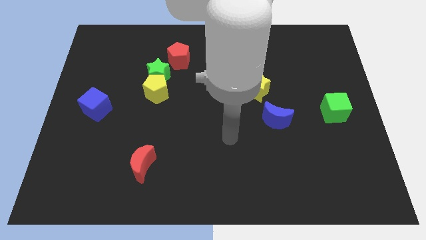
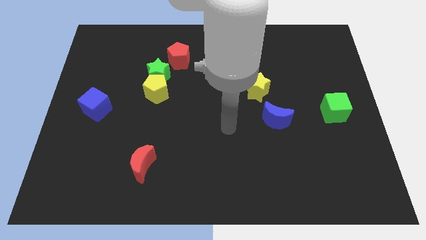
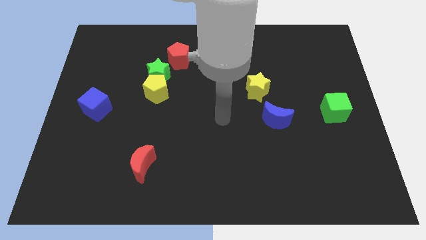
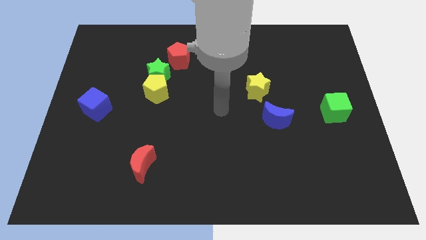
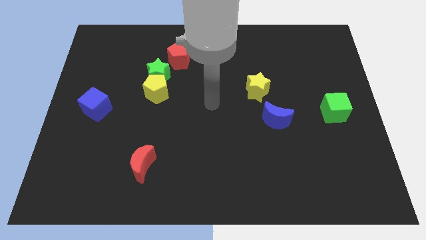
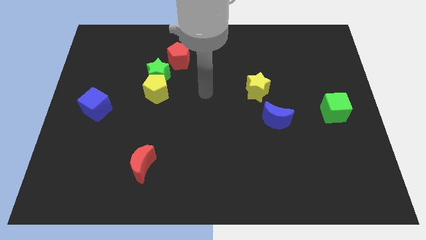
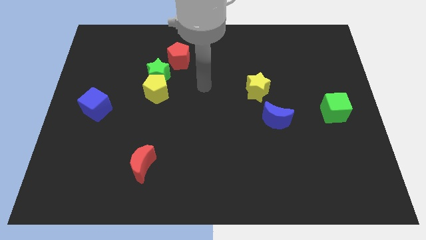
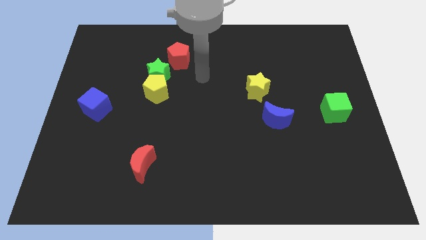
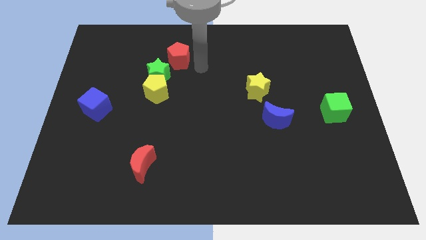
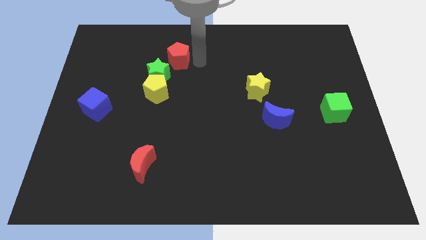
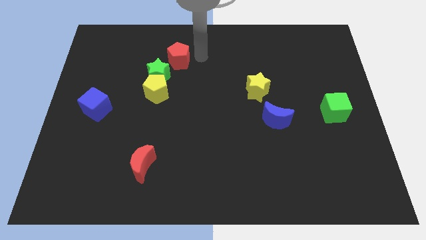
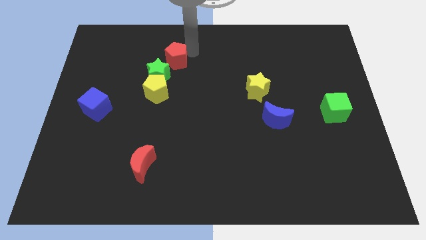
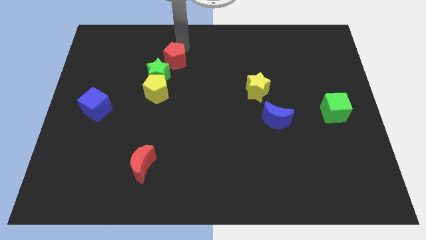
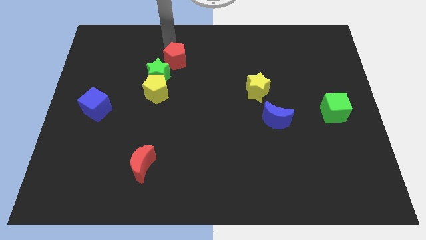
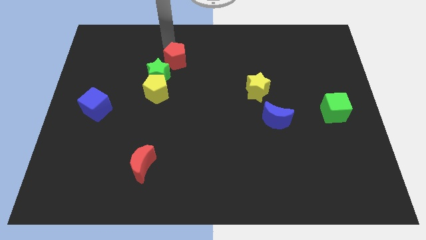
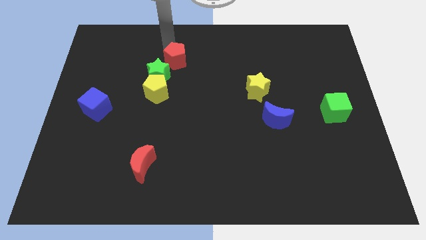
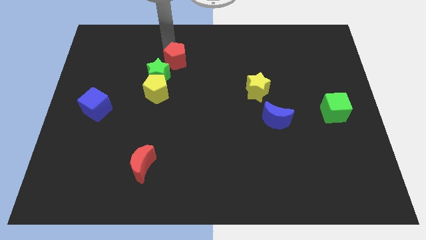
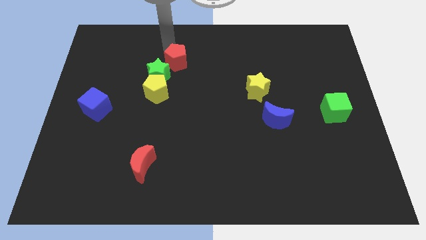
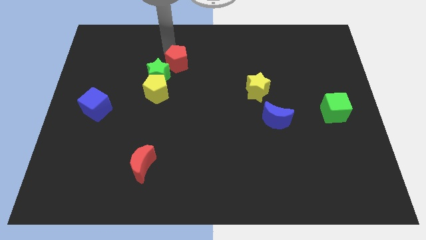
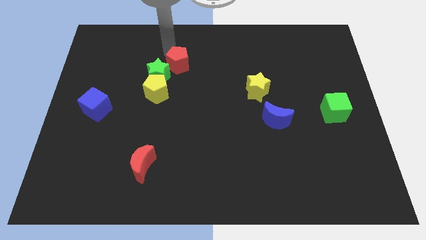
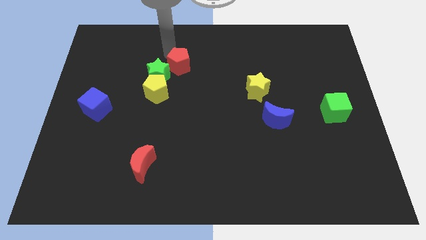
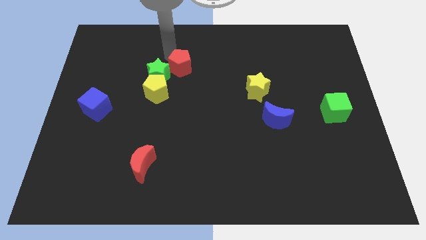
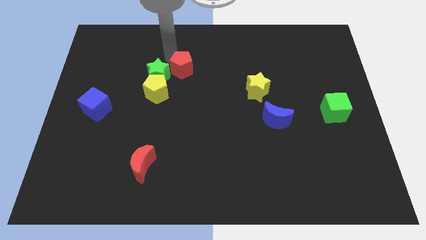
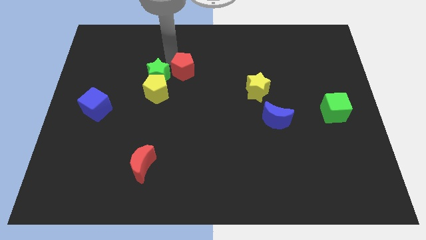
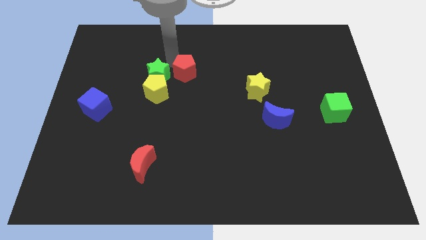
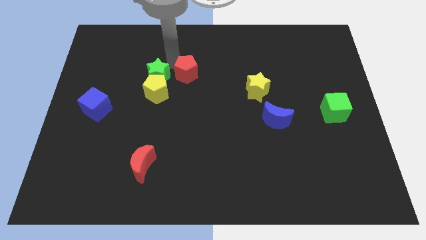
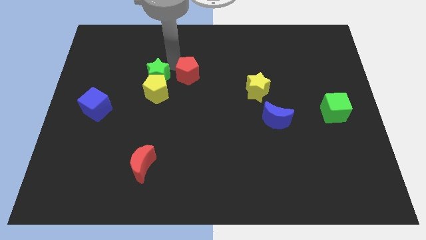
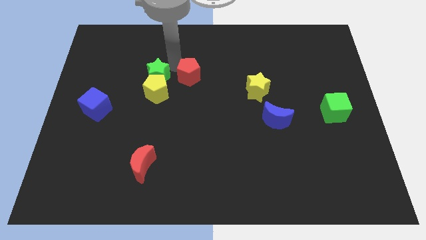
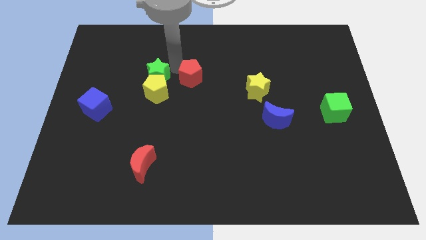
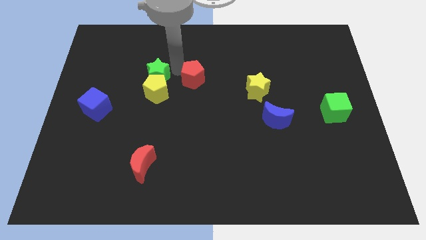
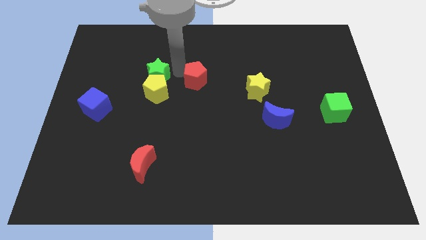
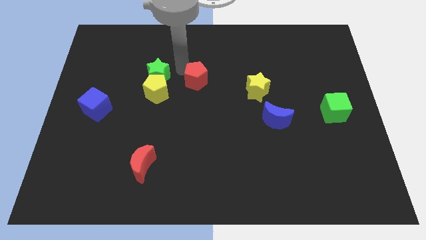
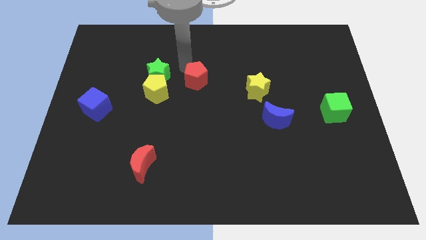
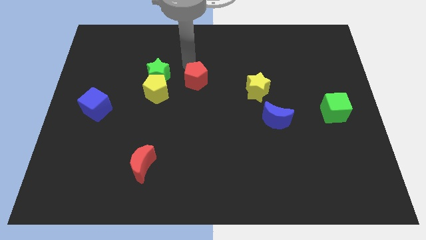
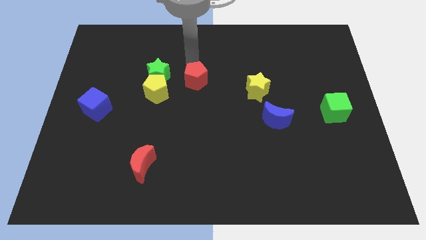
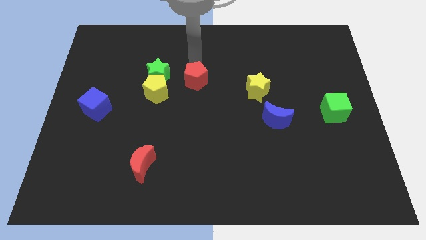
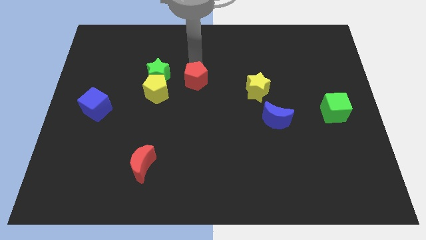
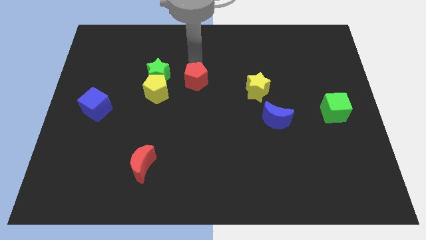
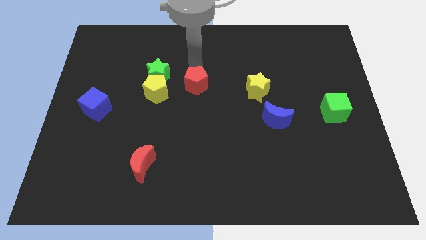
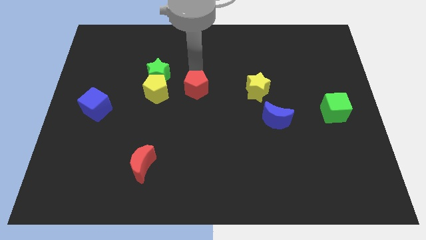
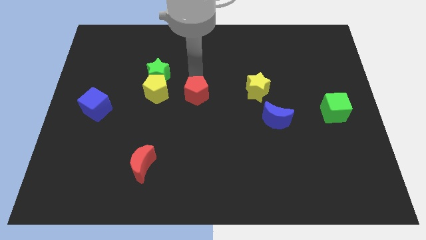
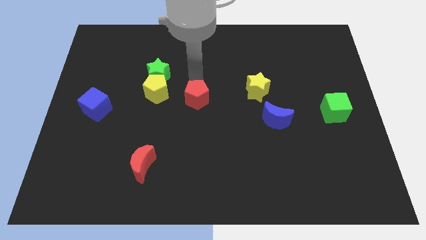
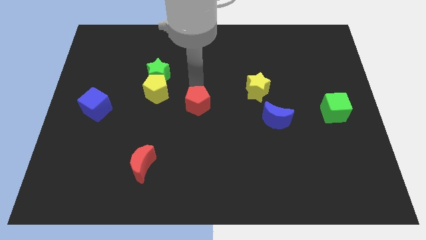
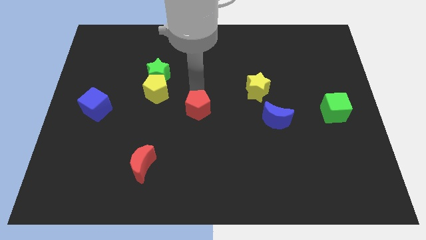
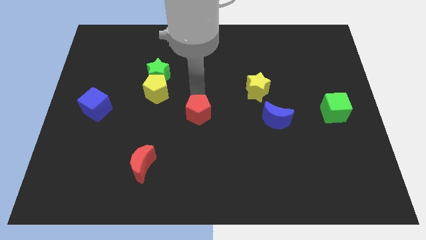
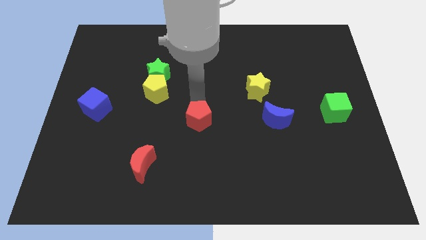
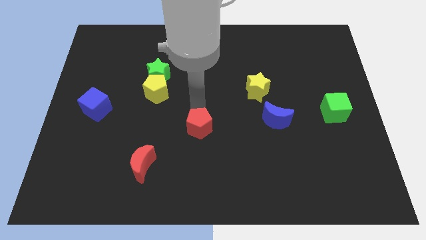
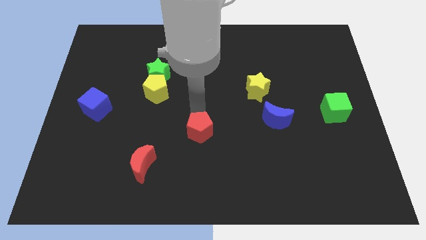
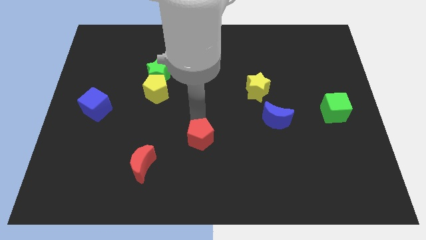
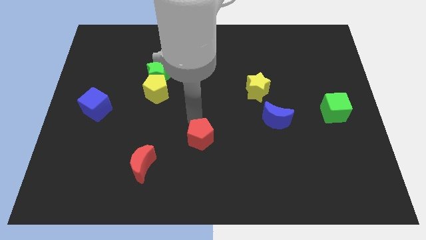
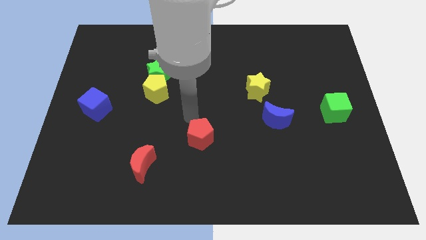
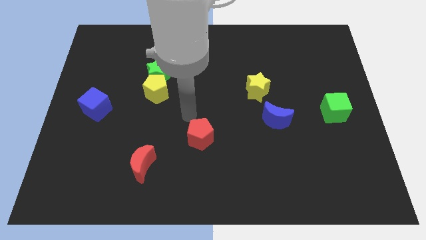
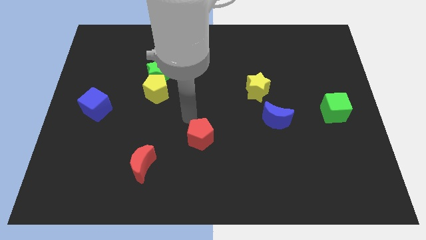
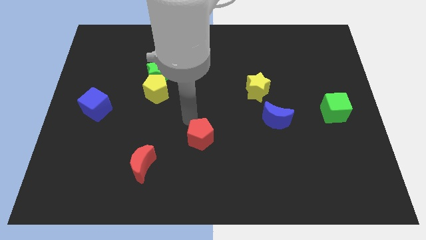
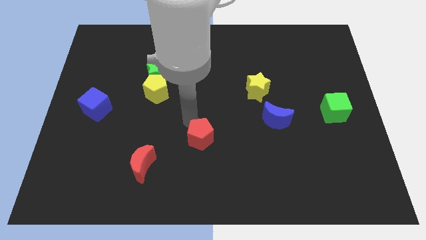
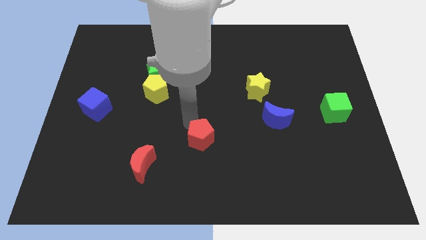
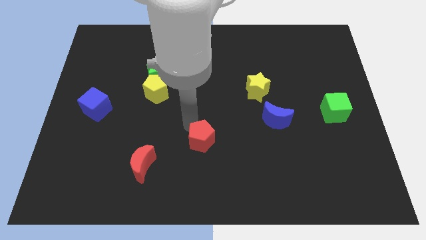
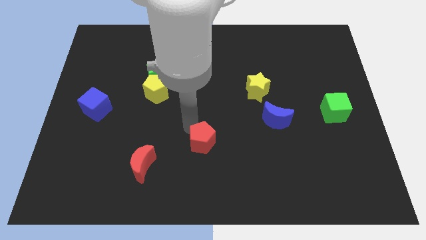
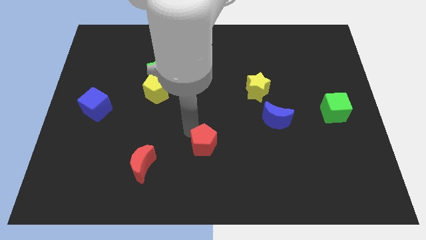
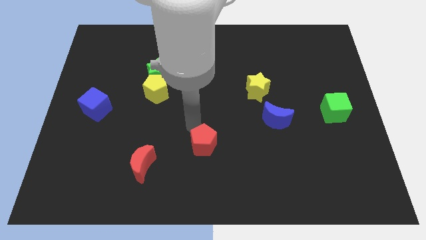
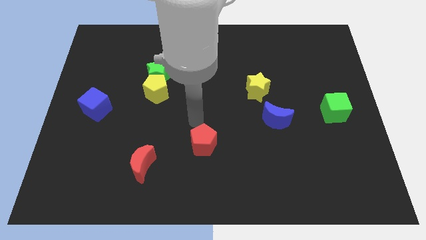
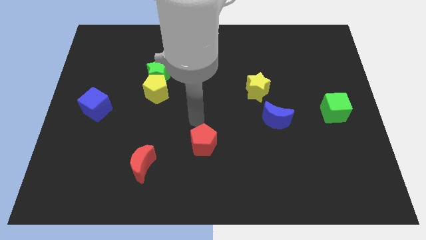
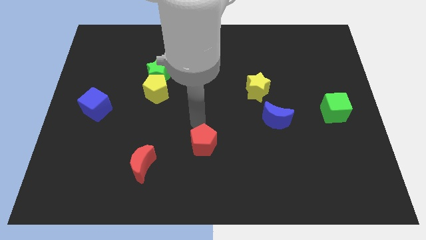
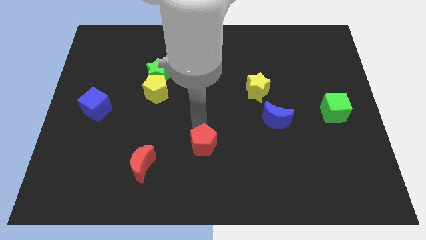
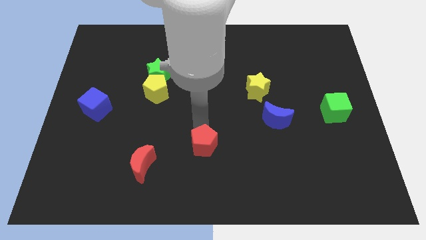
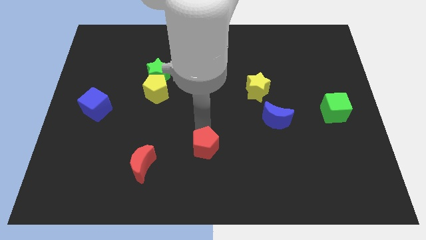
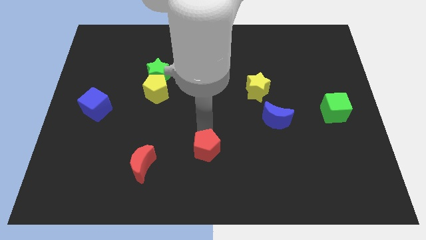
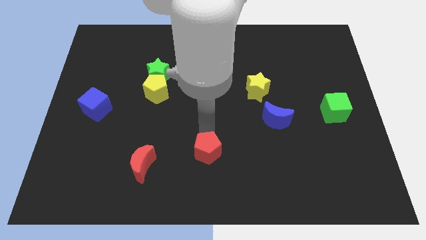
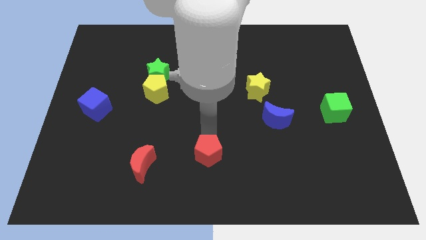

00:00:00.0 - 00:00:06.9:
slide the red pentagon to the bottom
